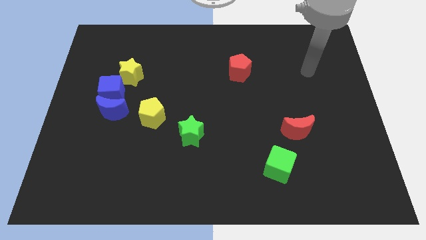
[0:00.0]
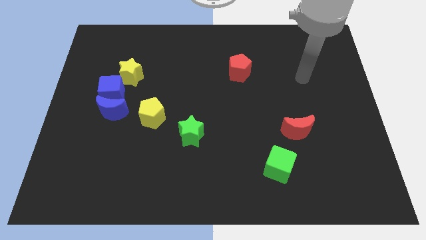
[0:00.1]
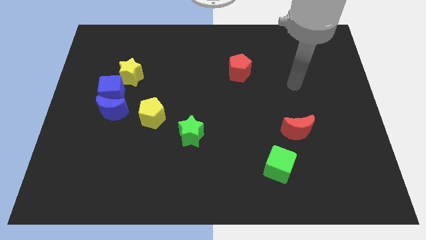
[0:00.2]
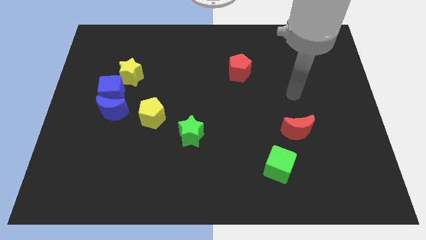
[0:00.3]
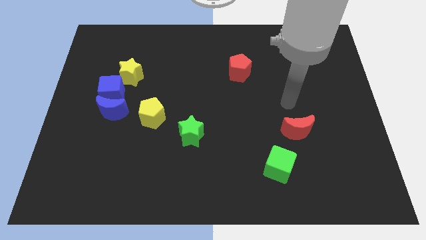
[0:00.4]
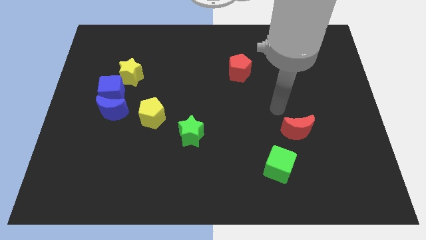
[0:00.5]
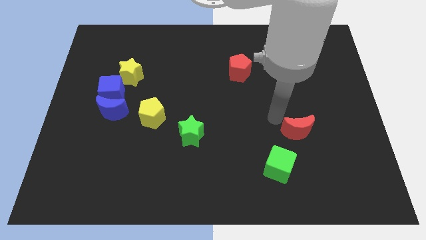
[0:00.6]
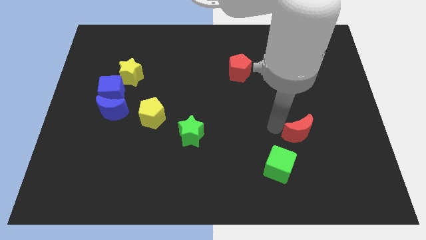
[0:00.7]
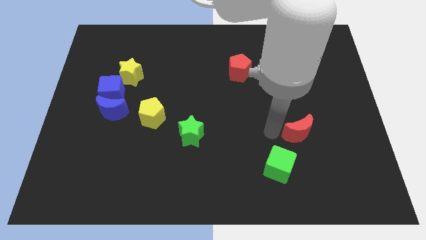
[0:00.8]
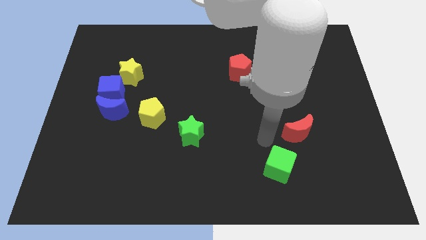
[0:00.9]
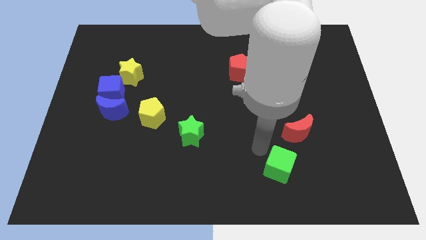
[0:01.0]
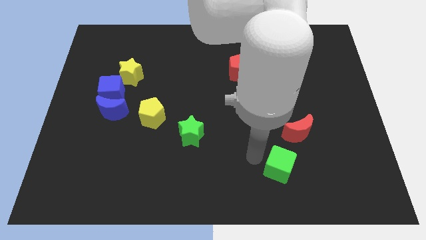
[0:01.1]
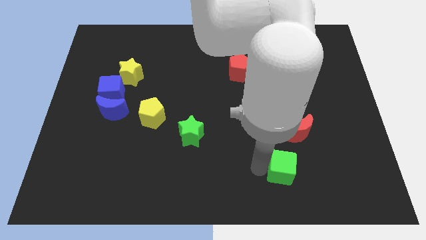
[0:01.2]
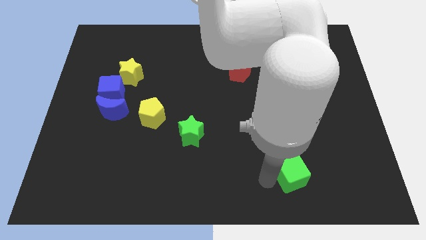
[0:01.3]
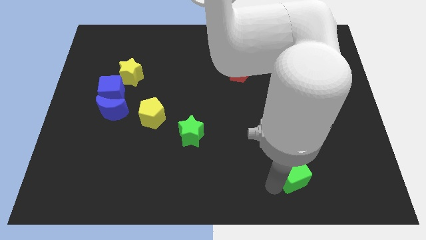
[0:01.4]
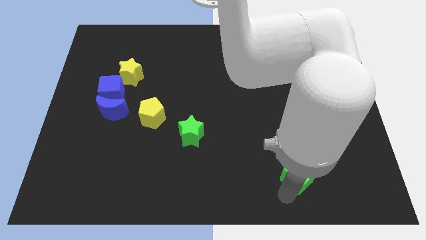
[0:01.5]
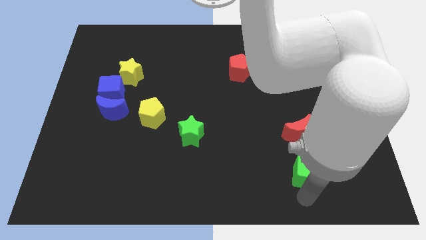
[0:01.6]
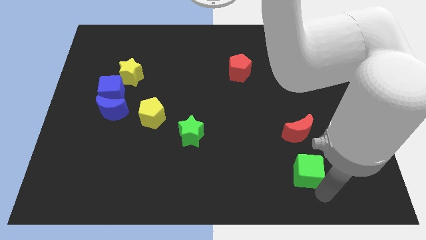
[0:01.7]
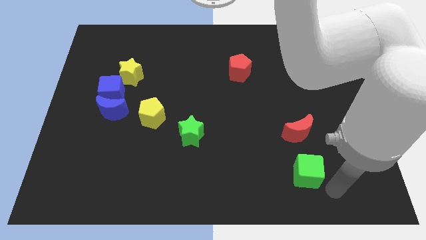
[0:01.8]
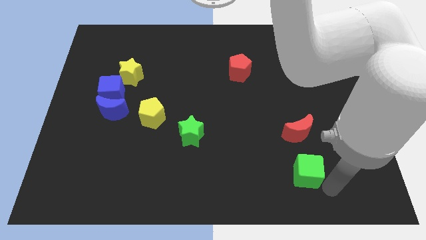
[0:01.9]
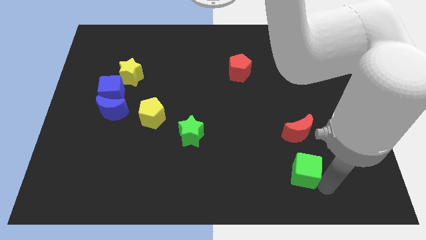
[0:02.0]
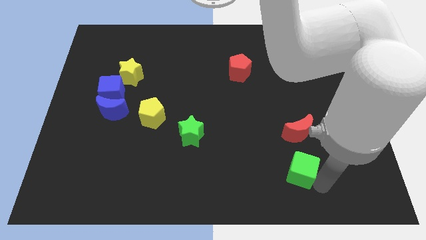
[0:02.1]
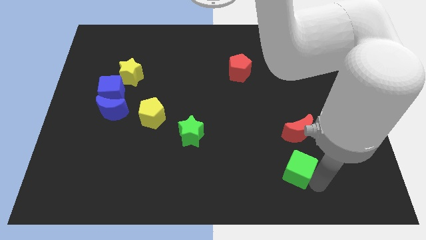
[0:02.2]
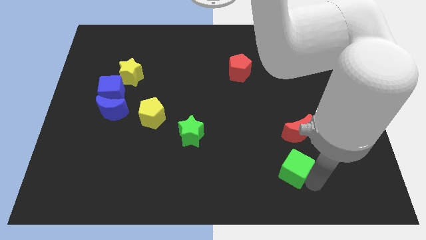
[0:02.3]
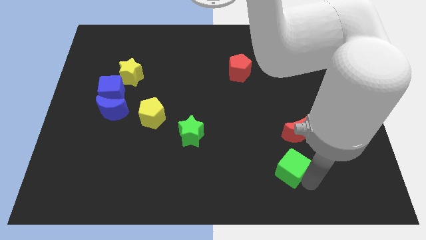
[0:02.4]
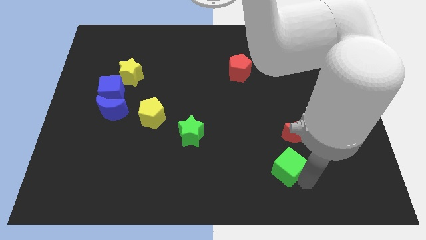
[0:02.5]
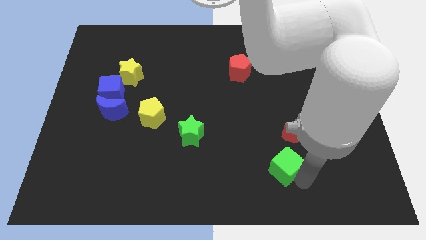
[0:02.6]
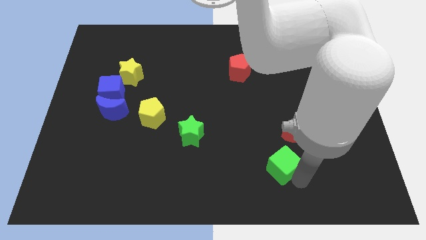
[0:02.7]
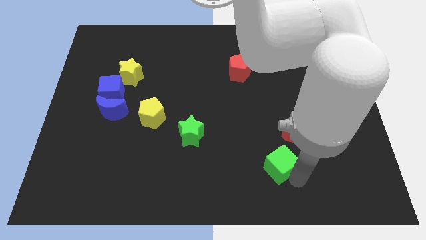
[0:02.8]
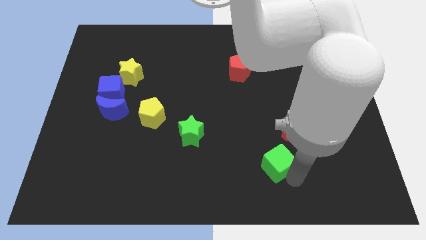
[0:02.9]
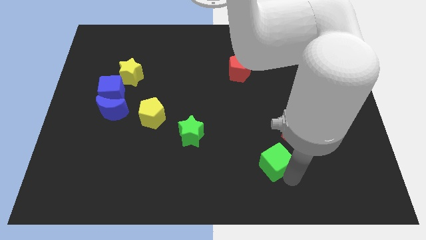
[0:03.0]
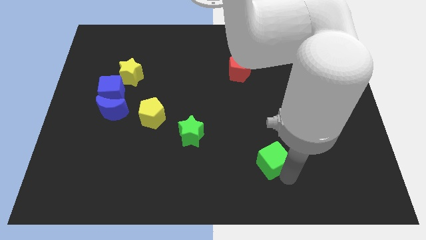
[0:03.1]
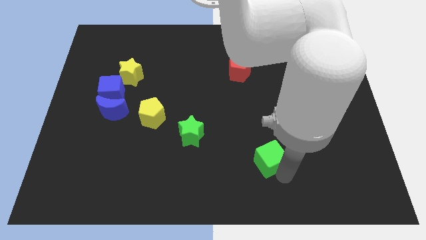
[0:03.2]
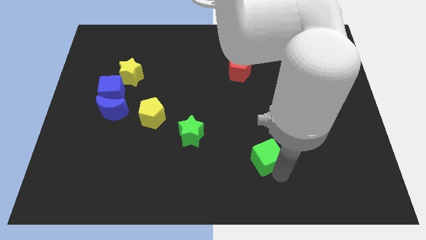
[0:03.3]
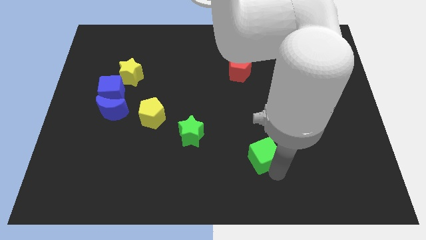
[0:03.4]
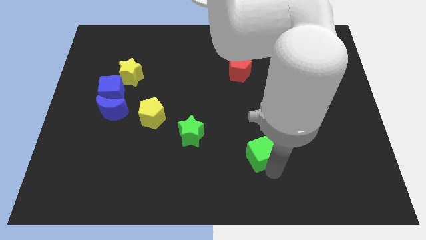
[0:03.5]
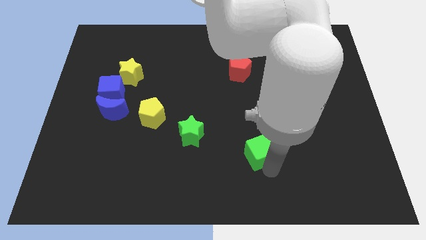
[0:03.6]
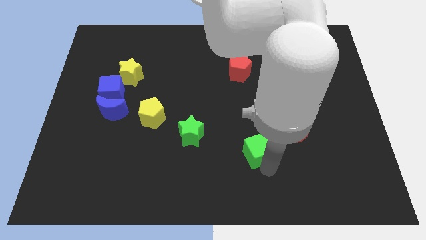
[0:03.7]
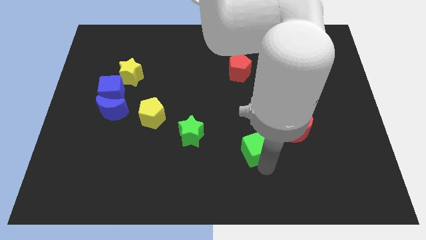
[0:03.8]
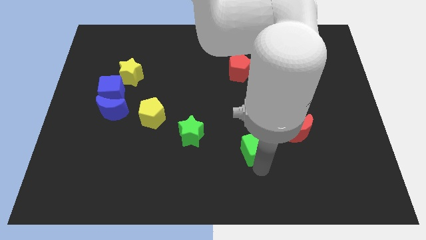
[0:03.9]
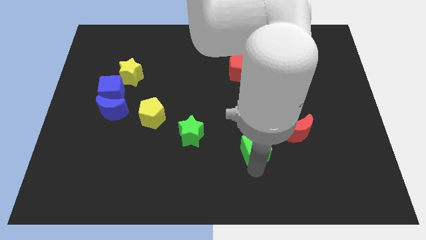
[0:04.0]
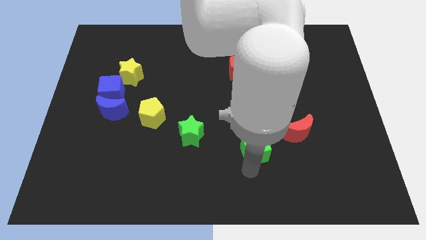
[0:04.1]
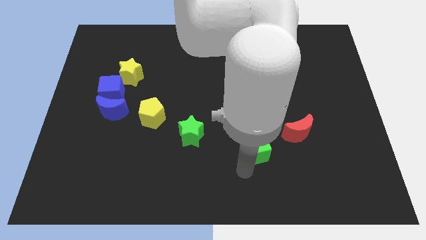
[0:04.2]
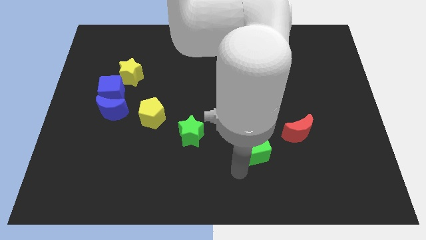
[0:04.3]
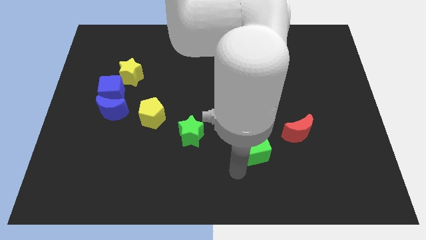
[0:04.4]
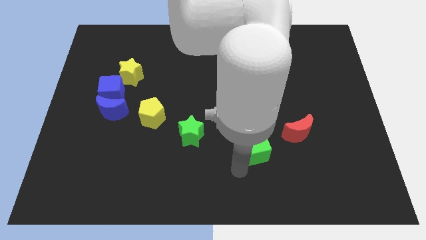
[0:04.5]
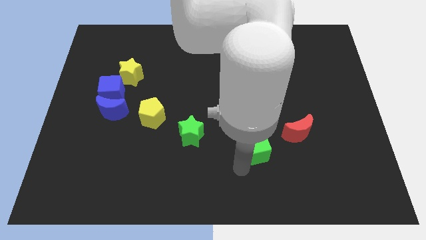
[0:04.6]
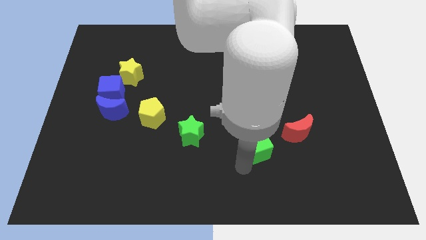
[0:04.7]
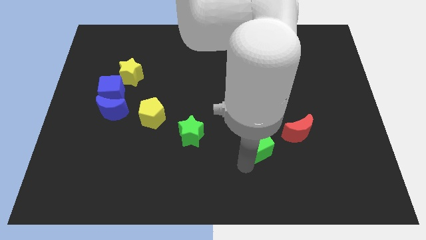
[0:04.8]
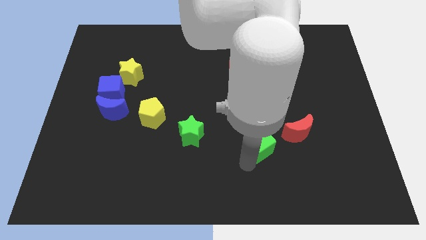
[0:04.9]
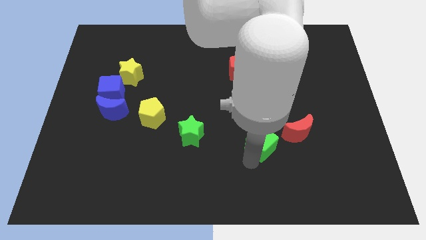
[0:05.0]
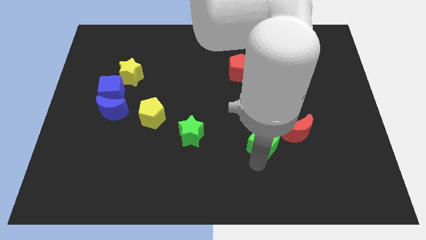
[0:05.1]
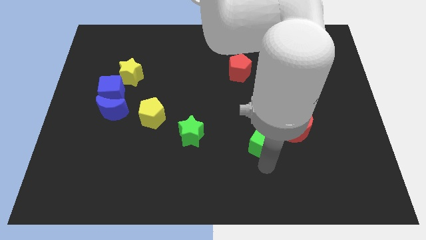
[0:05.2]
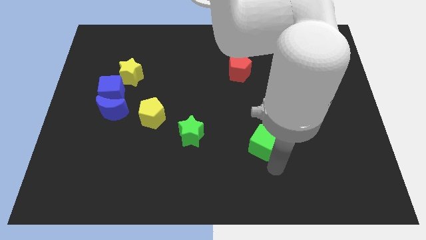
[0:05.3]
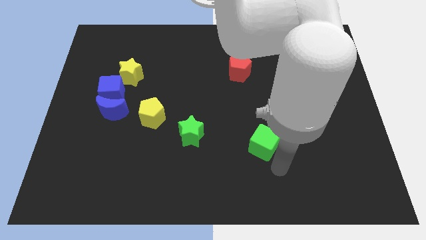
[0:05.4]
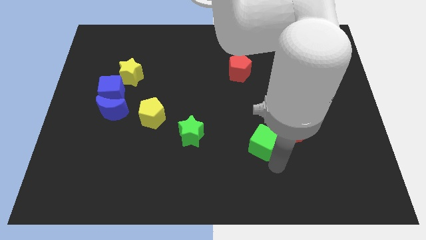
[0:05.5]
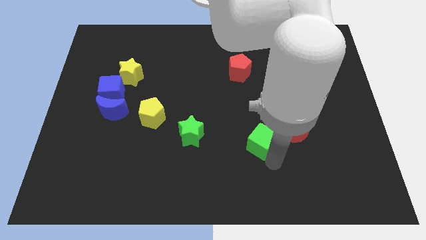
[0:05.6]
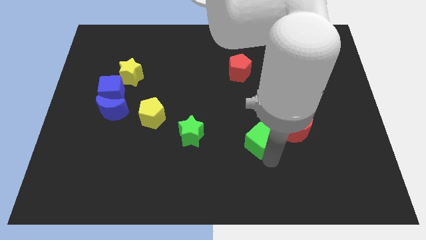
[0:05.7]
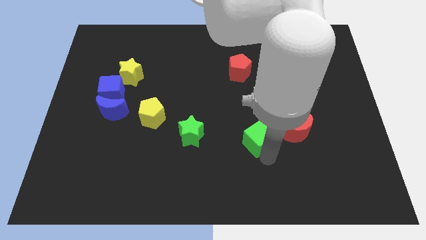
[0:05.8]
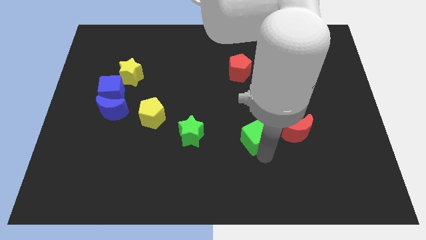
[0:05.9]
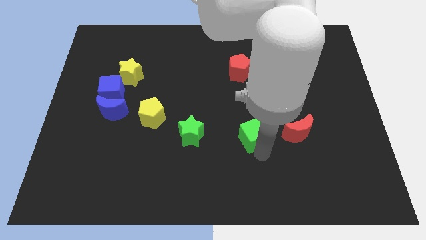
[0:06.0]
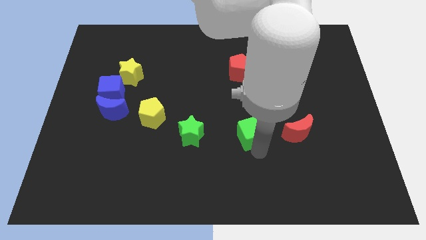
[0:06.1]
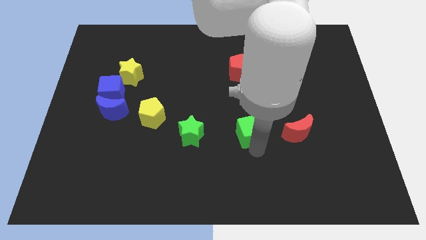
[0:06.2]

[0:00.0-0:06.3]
put the green cube to the center of the board

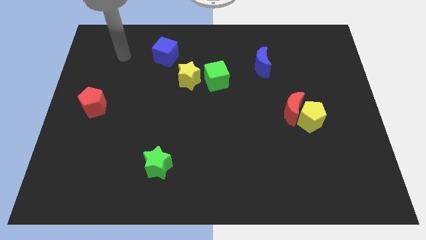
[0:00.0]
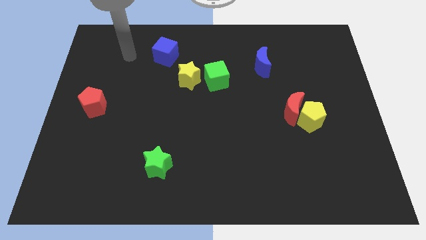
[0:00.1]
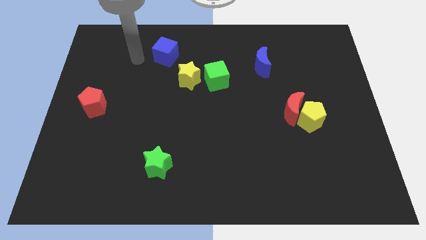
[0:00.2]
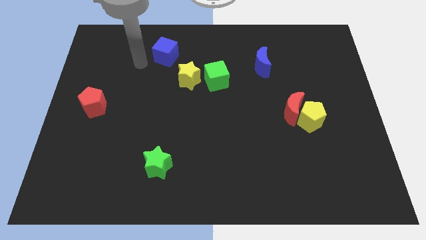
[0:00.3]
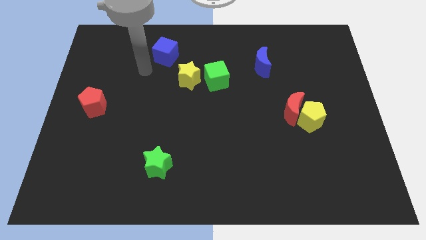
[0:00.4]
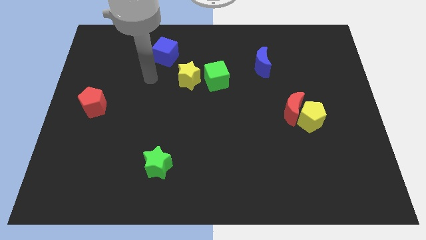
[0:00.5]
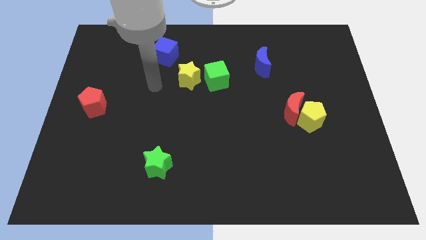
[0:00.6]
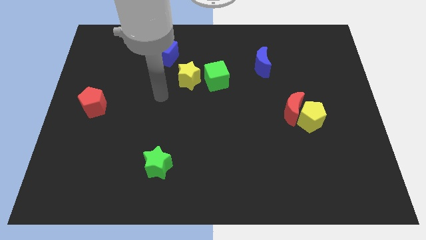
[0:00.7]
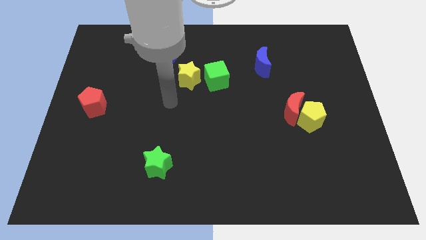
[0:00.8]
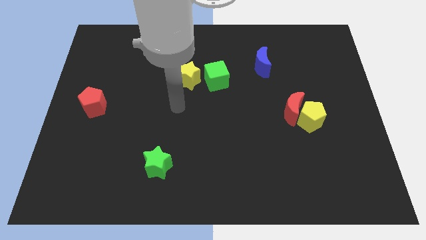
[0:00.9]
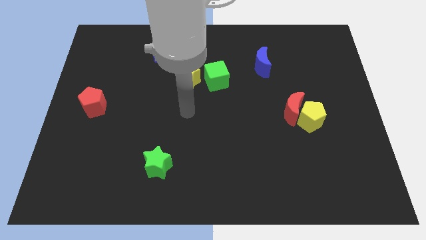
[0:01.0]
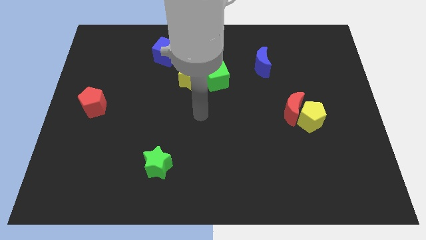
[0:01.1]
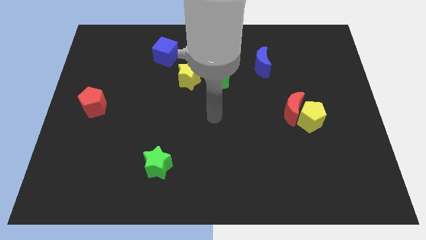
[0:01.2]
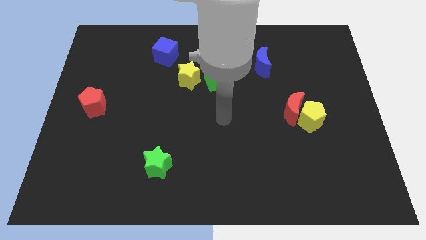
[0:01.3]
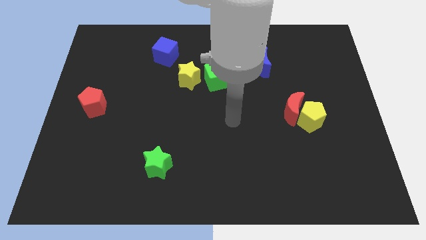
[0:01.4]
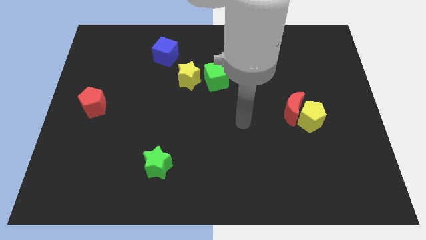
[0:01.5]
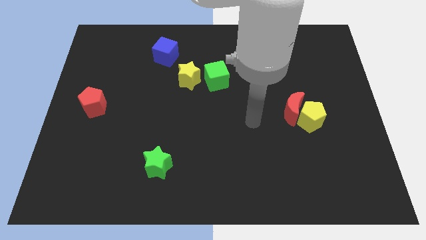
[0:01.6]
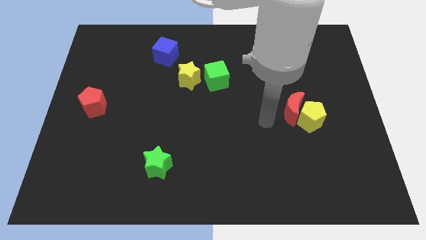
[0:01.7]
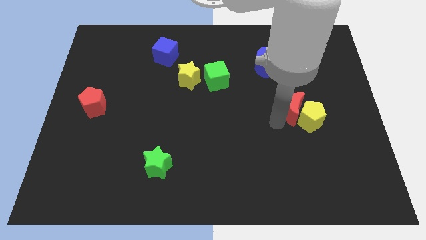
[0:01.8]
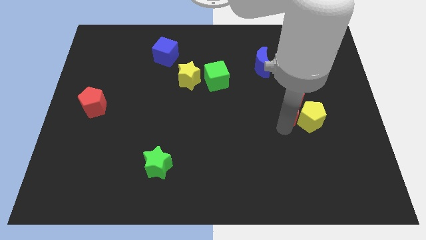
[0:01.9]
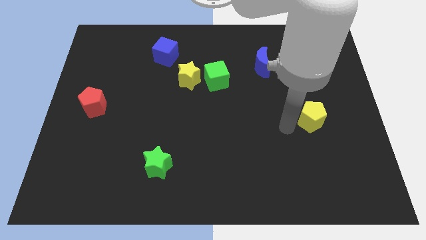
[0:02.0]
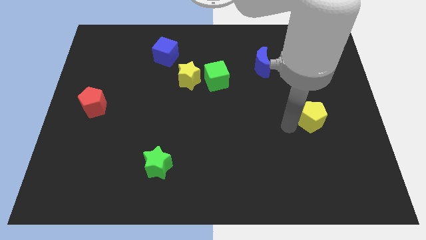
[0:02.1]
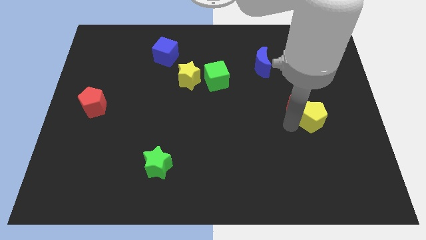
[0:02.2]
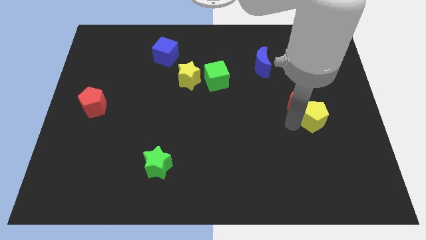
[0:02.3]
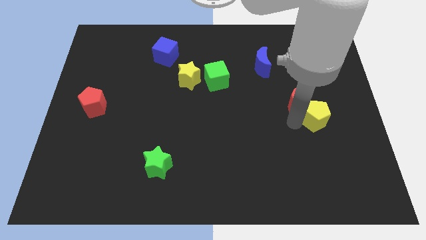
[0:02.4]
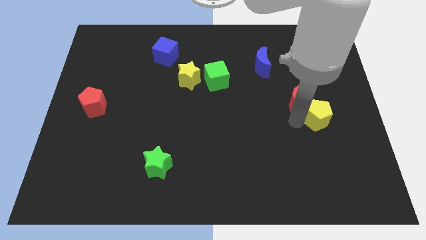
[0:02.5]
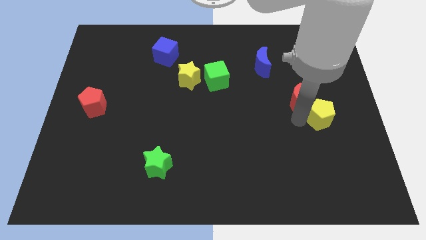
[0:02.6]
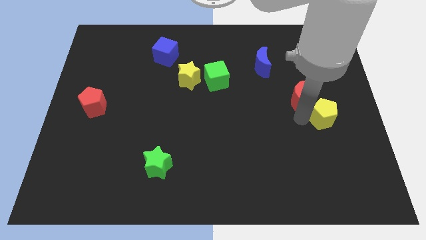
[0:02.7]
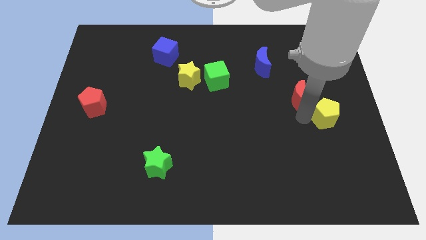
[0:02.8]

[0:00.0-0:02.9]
put the yellow pentagon to the center right
